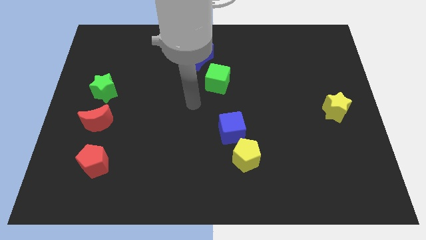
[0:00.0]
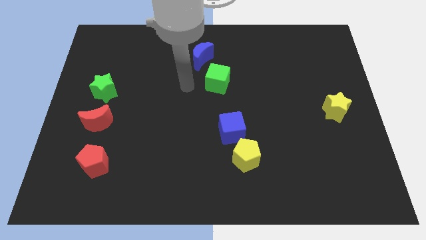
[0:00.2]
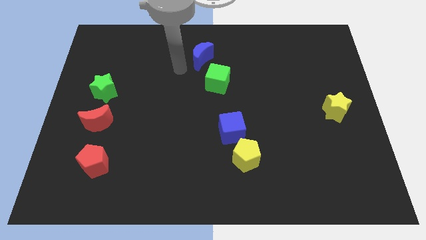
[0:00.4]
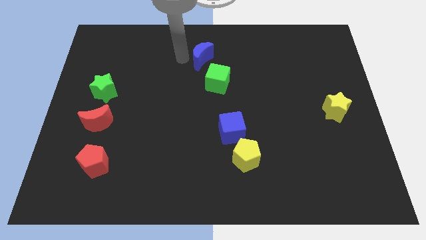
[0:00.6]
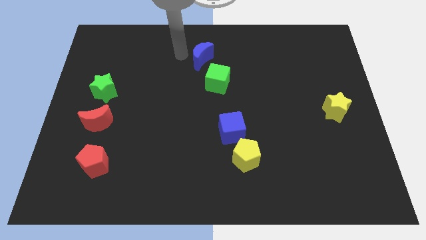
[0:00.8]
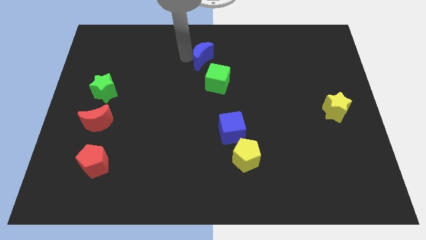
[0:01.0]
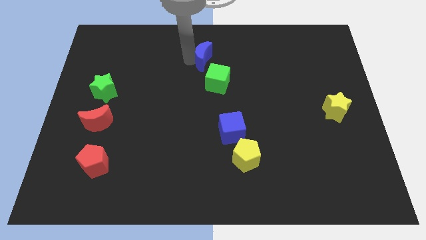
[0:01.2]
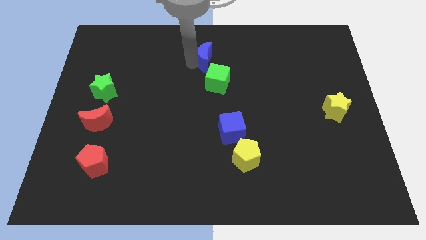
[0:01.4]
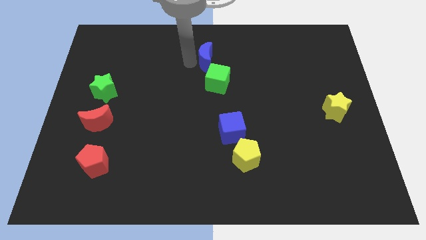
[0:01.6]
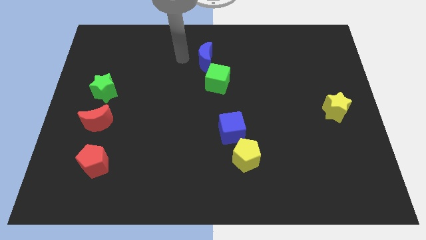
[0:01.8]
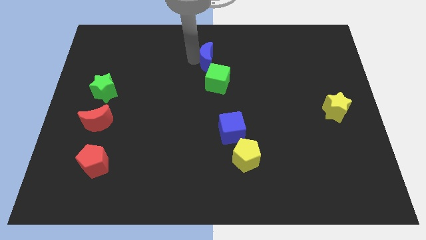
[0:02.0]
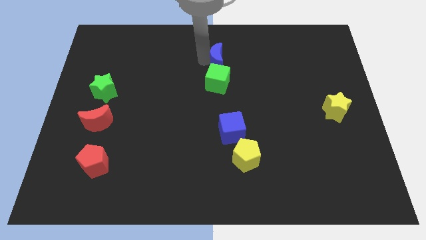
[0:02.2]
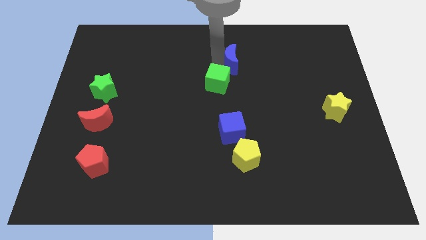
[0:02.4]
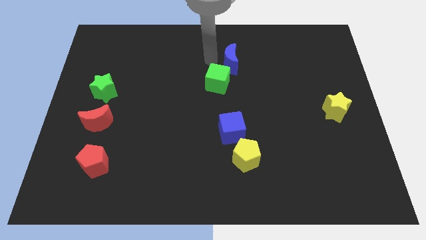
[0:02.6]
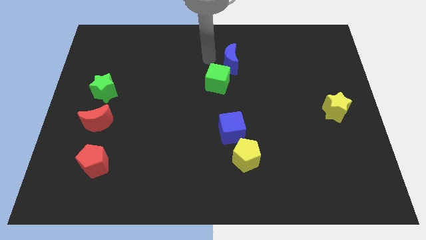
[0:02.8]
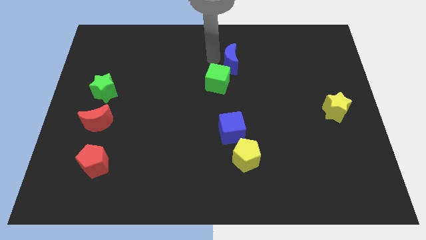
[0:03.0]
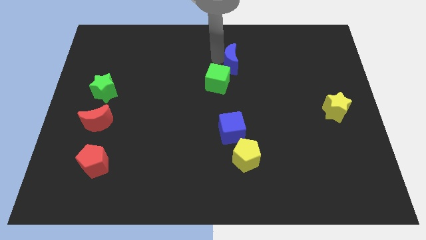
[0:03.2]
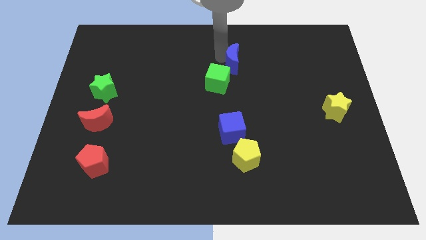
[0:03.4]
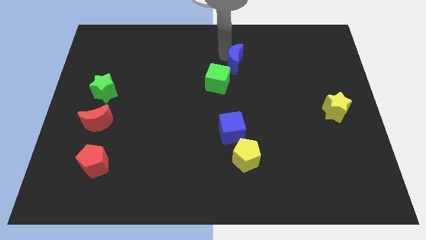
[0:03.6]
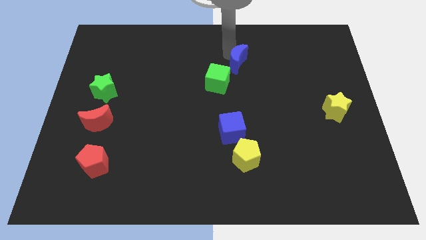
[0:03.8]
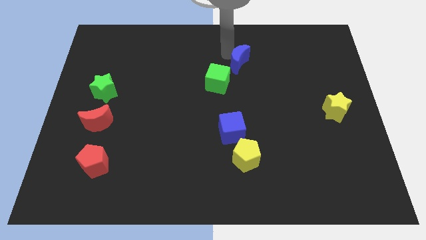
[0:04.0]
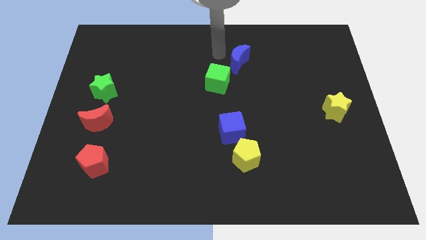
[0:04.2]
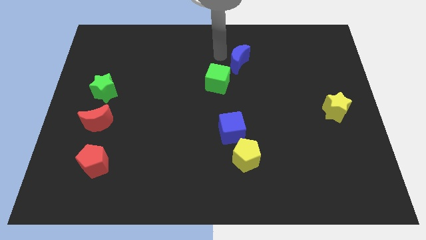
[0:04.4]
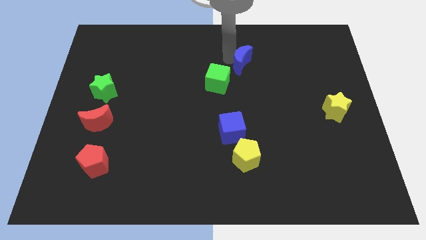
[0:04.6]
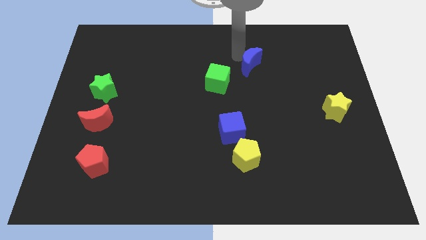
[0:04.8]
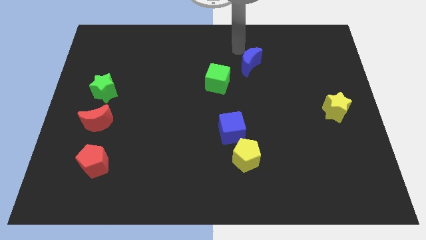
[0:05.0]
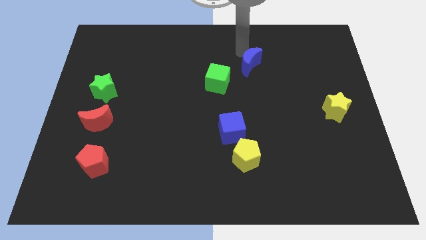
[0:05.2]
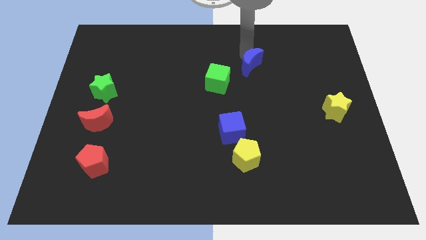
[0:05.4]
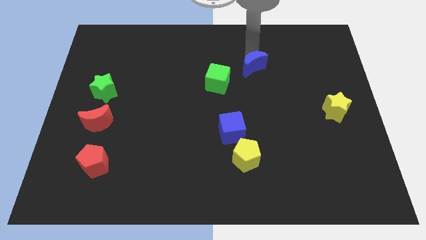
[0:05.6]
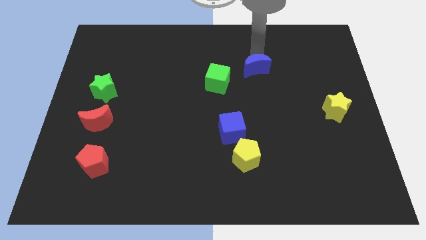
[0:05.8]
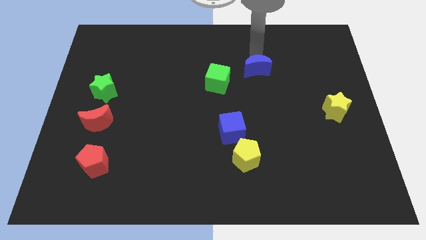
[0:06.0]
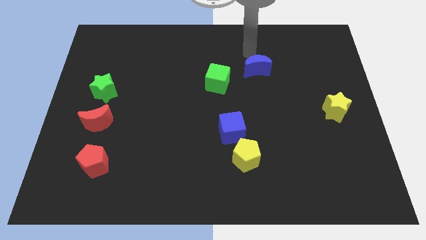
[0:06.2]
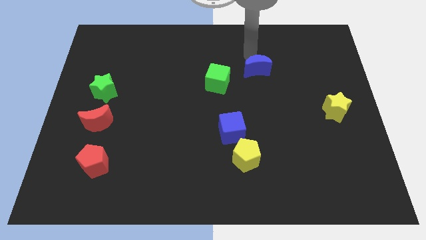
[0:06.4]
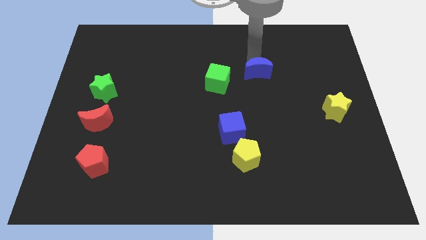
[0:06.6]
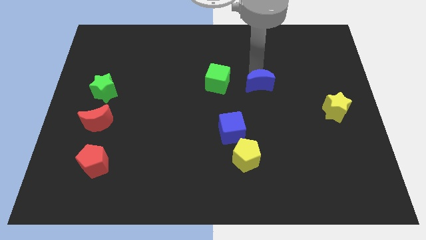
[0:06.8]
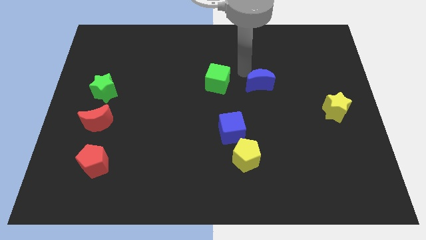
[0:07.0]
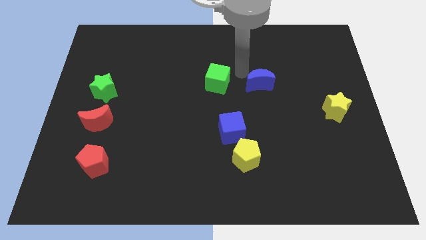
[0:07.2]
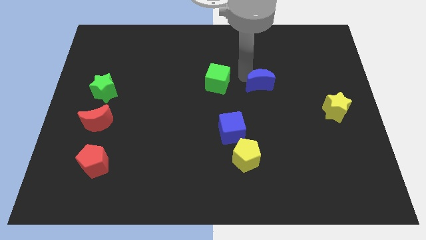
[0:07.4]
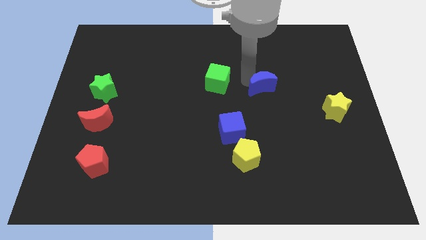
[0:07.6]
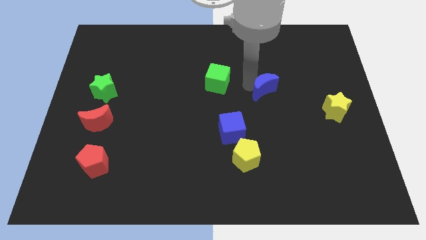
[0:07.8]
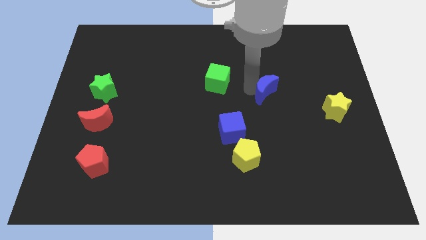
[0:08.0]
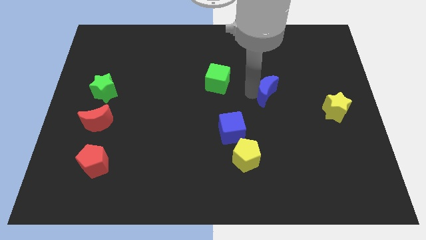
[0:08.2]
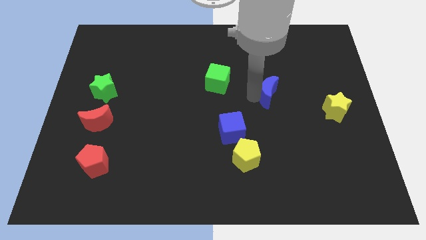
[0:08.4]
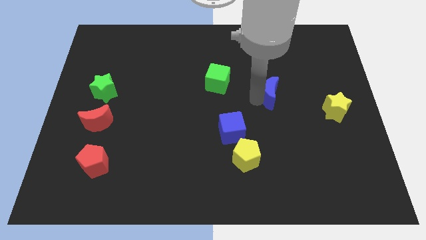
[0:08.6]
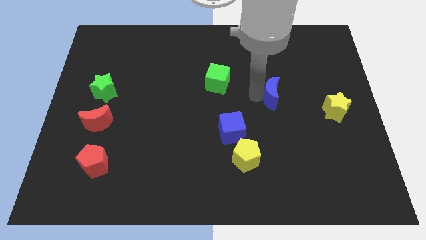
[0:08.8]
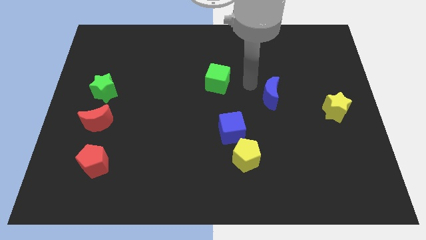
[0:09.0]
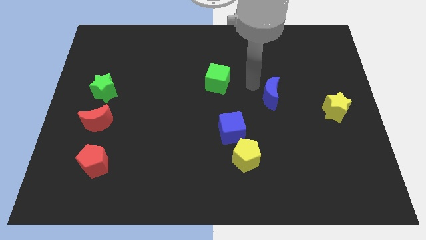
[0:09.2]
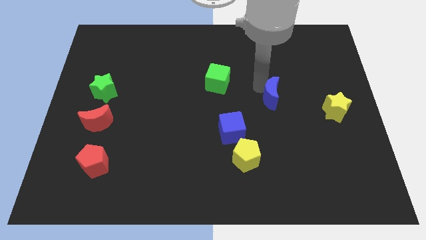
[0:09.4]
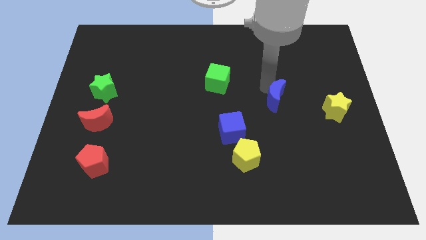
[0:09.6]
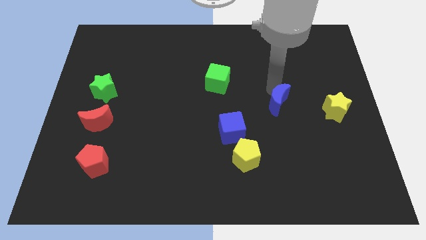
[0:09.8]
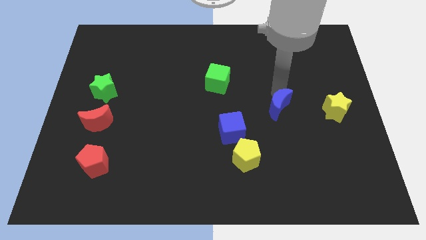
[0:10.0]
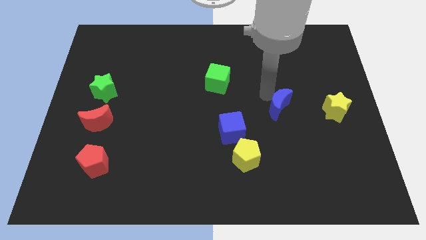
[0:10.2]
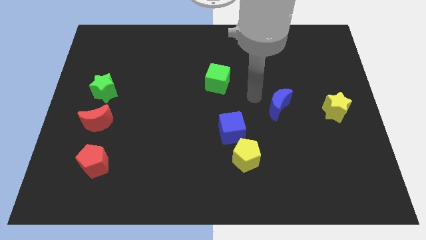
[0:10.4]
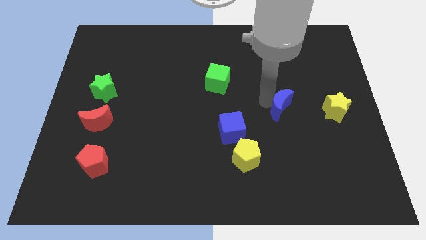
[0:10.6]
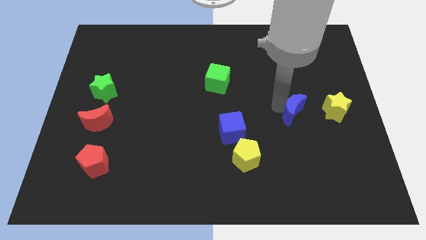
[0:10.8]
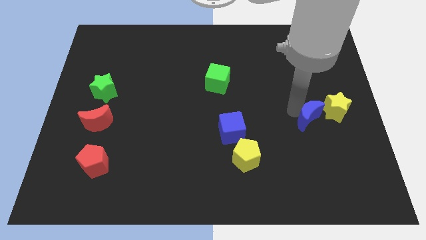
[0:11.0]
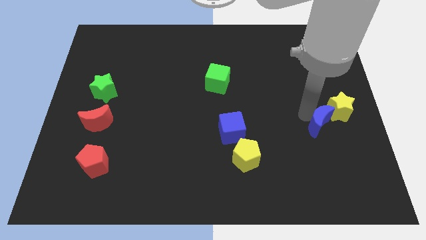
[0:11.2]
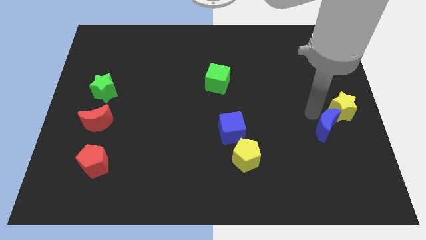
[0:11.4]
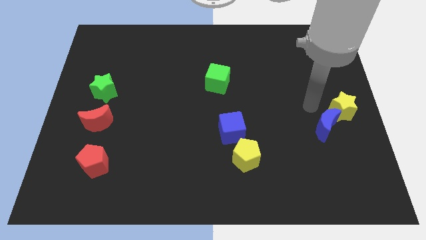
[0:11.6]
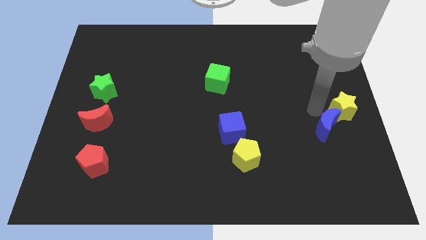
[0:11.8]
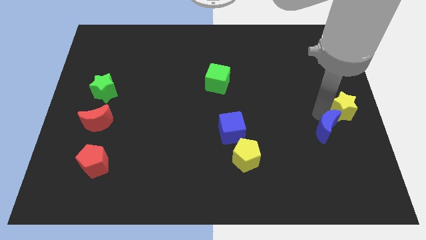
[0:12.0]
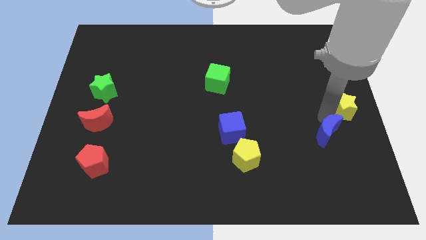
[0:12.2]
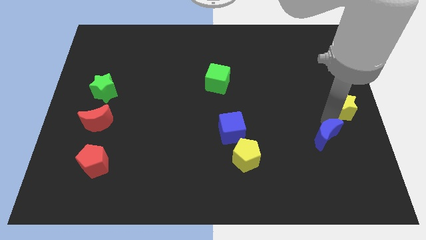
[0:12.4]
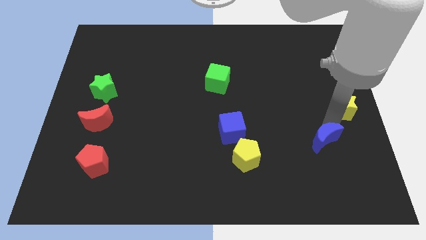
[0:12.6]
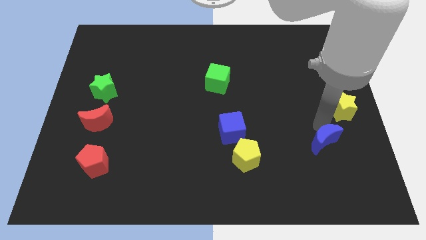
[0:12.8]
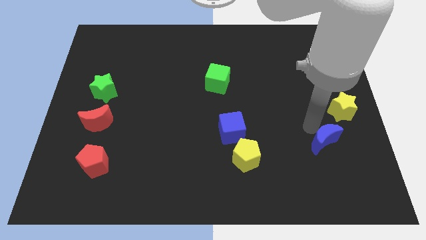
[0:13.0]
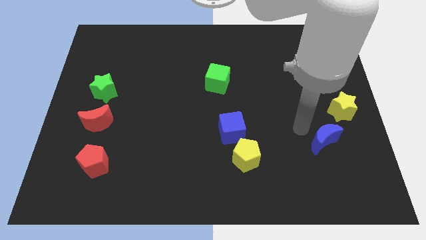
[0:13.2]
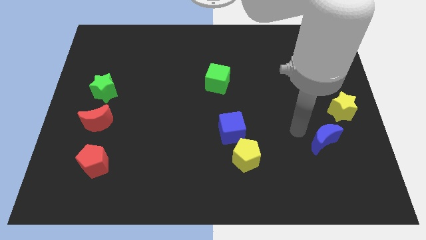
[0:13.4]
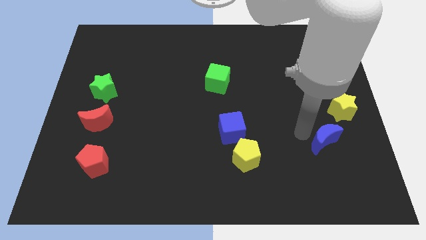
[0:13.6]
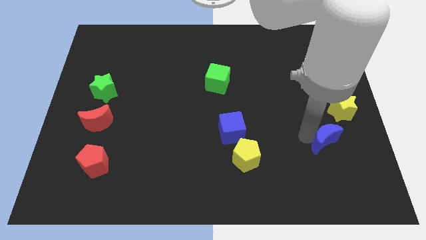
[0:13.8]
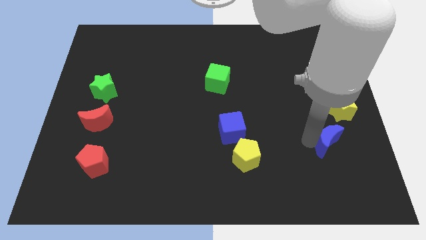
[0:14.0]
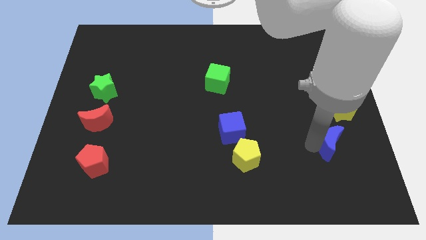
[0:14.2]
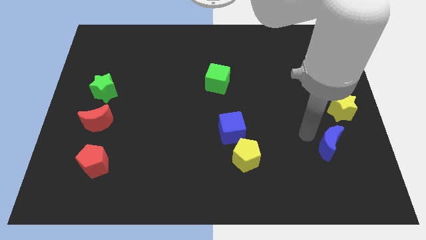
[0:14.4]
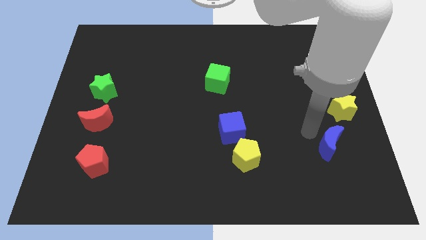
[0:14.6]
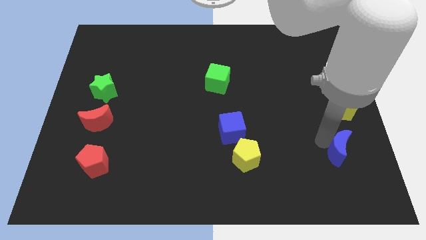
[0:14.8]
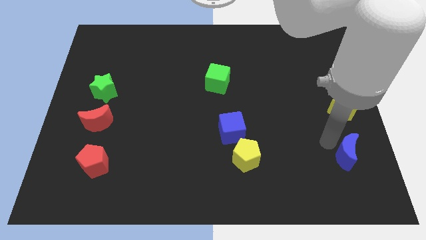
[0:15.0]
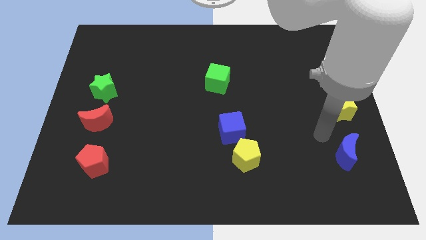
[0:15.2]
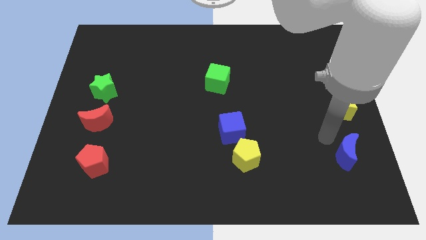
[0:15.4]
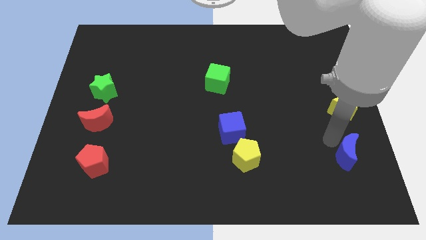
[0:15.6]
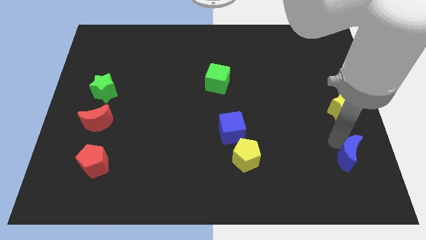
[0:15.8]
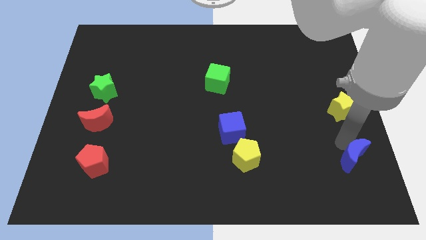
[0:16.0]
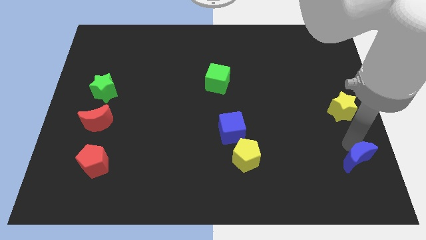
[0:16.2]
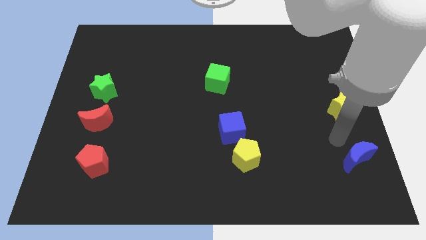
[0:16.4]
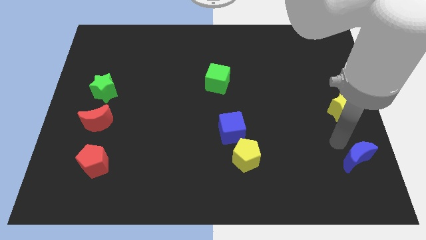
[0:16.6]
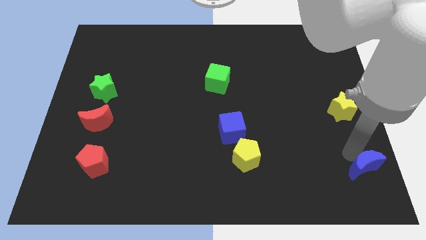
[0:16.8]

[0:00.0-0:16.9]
push the blue moon to the bottom right corner
